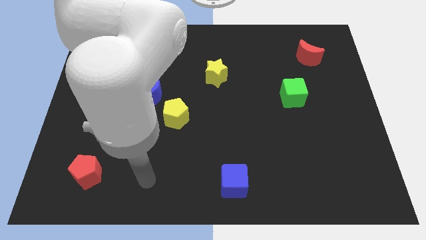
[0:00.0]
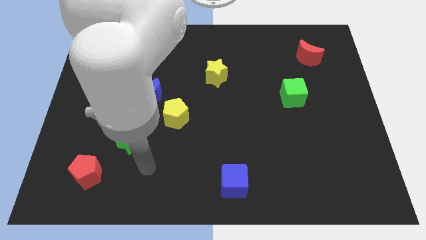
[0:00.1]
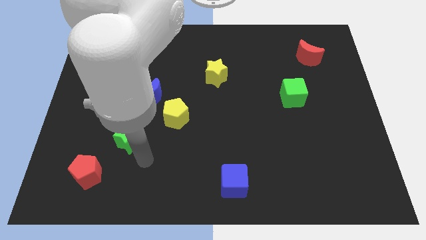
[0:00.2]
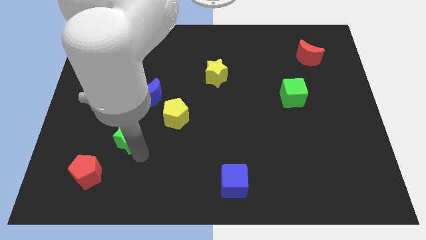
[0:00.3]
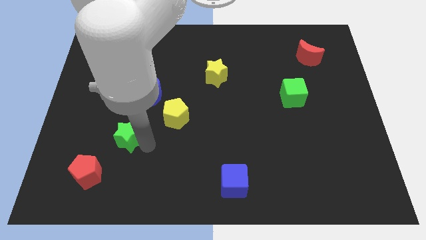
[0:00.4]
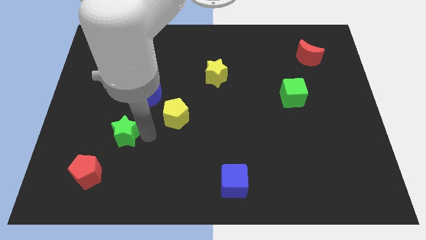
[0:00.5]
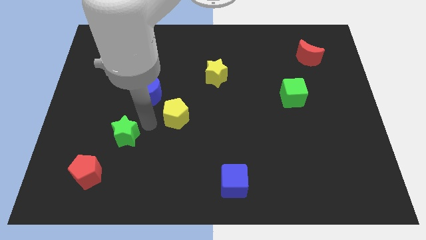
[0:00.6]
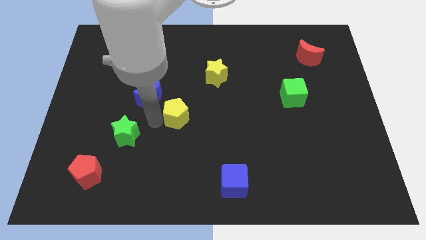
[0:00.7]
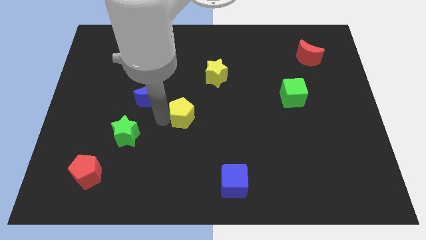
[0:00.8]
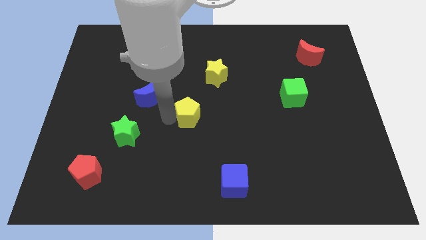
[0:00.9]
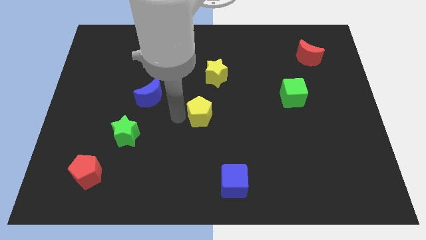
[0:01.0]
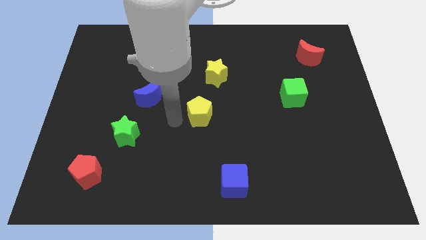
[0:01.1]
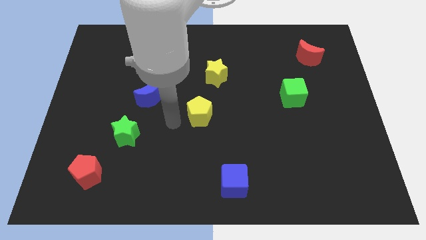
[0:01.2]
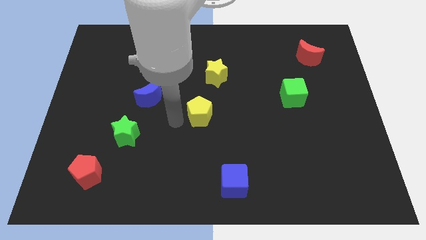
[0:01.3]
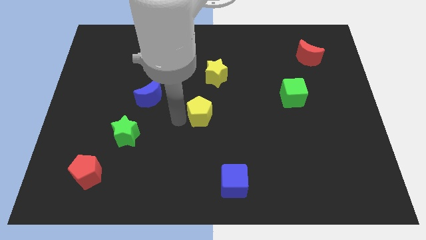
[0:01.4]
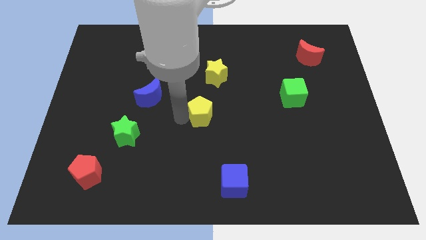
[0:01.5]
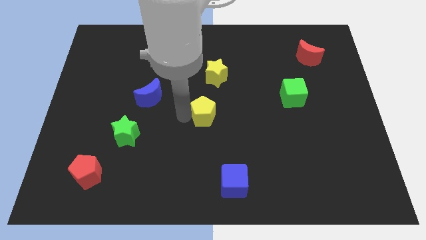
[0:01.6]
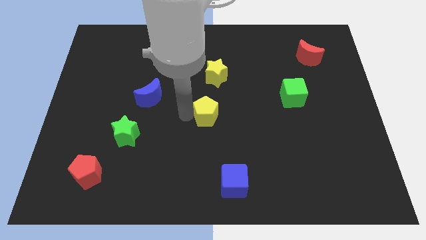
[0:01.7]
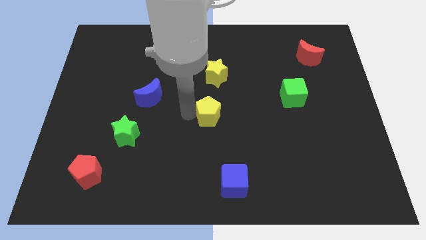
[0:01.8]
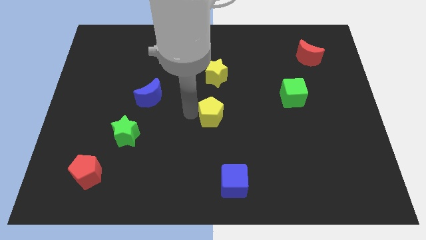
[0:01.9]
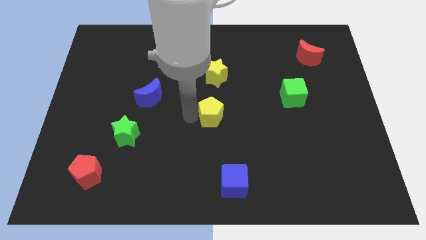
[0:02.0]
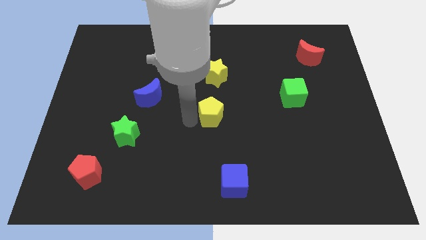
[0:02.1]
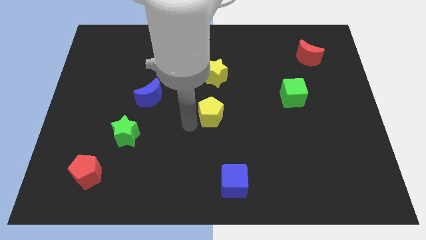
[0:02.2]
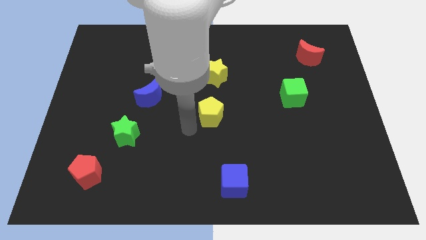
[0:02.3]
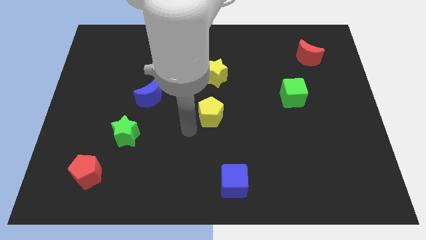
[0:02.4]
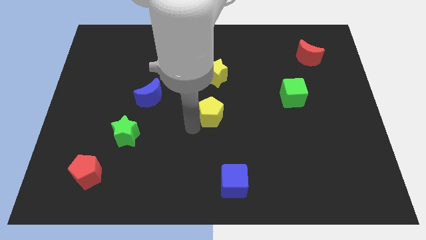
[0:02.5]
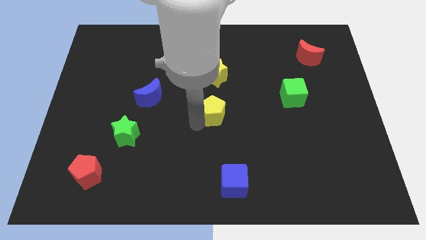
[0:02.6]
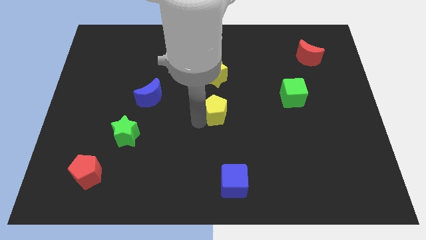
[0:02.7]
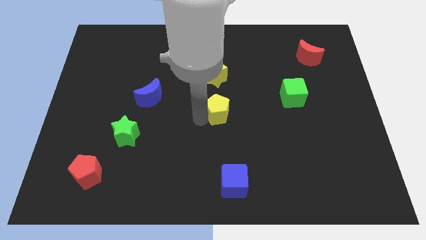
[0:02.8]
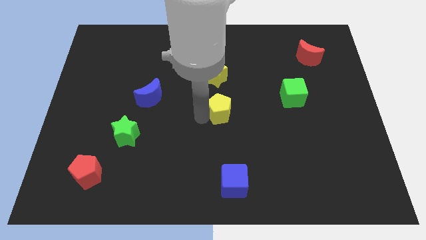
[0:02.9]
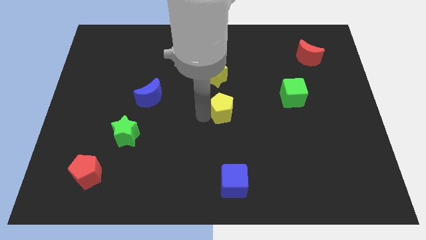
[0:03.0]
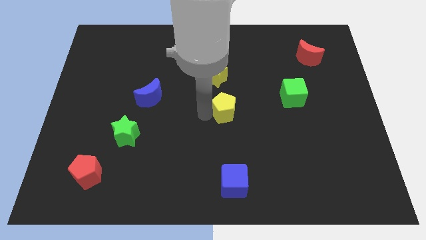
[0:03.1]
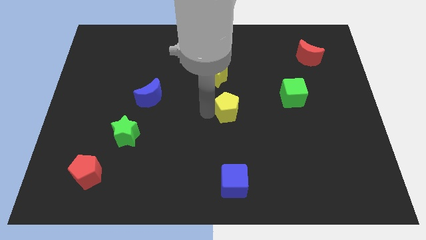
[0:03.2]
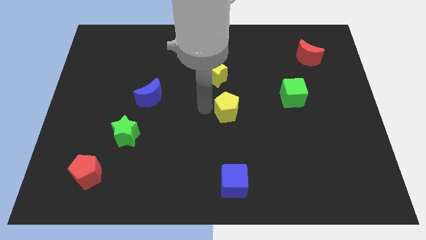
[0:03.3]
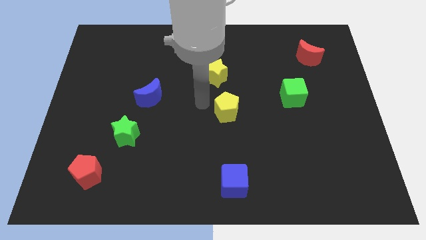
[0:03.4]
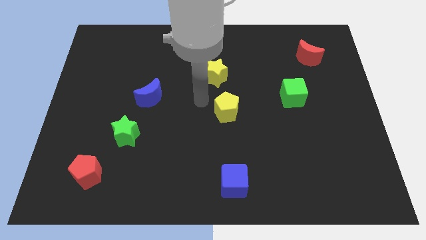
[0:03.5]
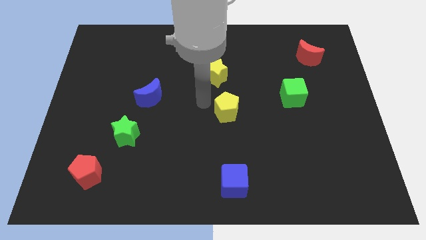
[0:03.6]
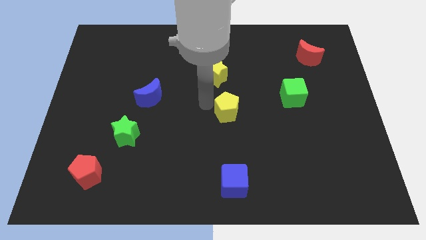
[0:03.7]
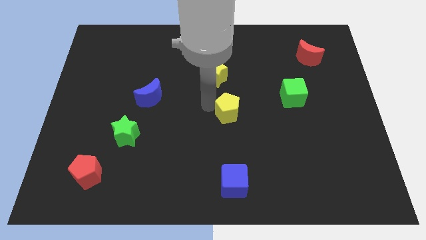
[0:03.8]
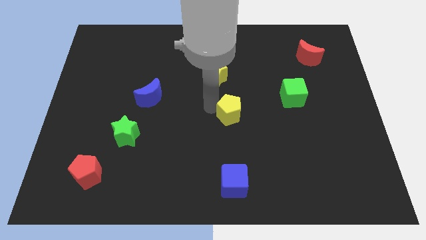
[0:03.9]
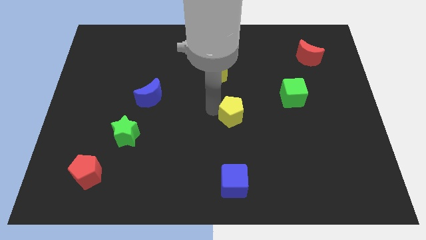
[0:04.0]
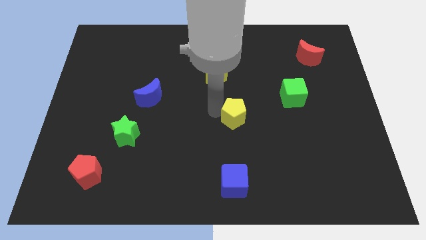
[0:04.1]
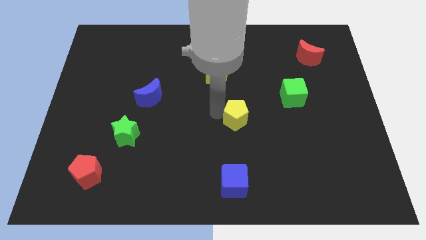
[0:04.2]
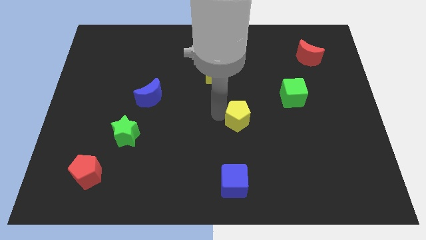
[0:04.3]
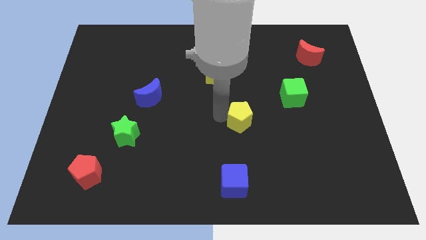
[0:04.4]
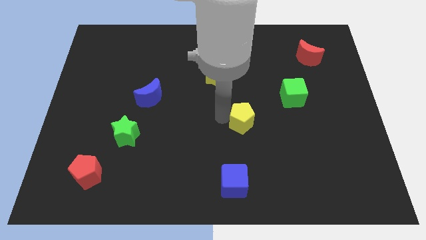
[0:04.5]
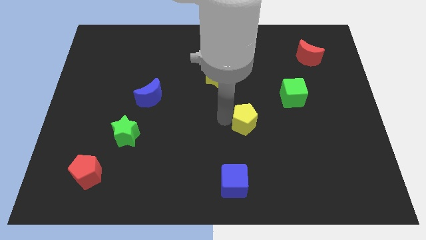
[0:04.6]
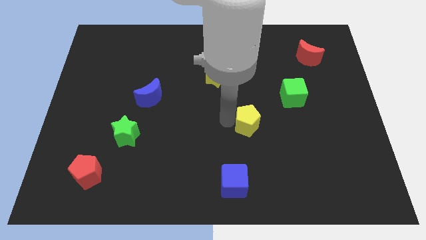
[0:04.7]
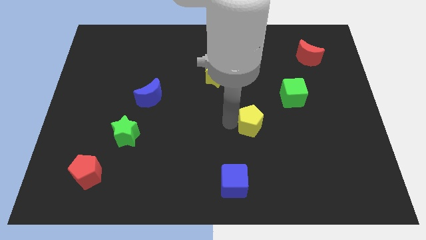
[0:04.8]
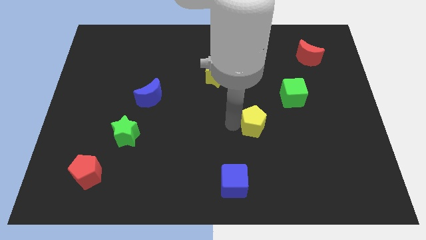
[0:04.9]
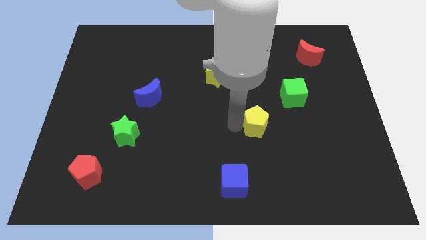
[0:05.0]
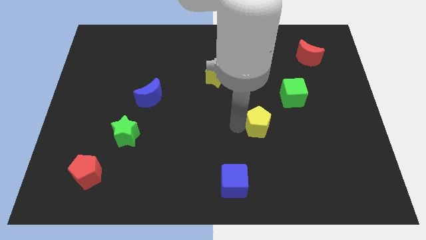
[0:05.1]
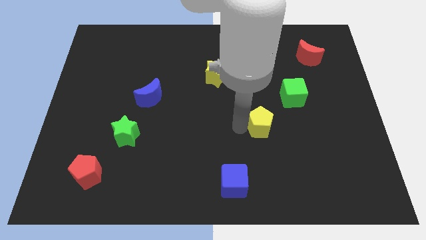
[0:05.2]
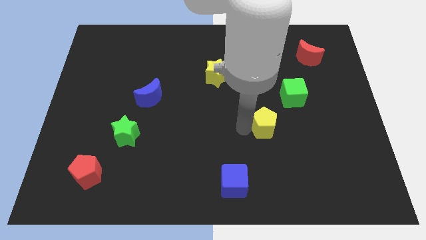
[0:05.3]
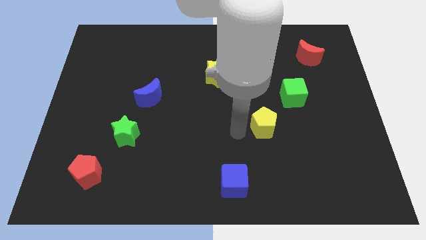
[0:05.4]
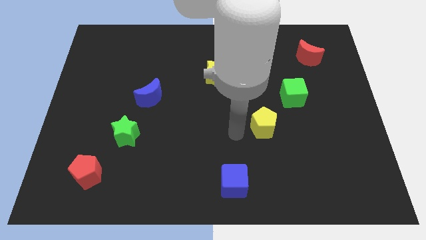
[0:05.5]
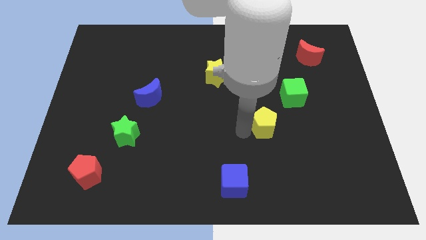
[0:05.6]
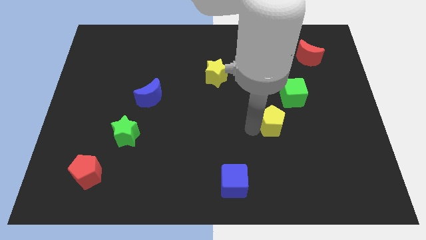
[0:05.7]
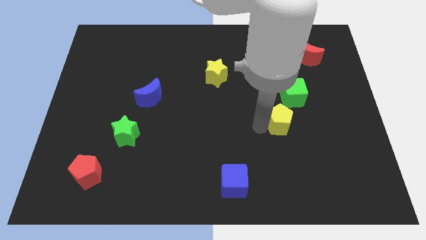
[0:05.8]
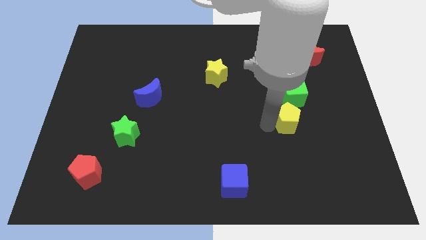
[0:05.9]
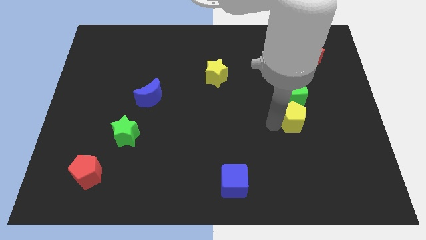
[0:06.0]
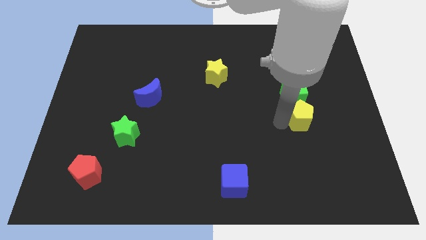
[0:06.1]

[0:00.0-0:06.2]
slide the yellow pentagon to the bottom right side of the green cube

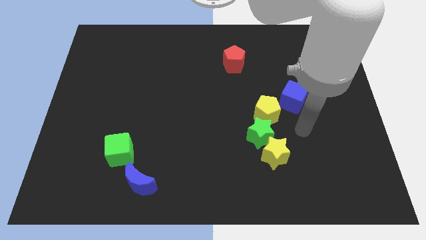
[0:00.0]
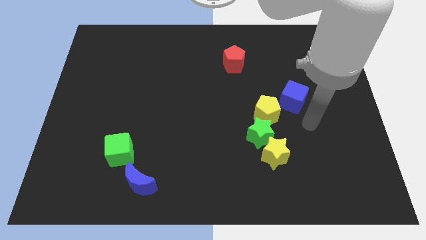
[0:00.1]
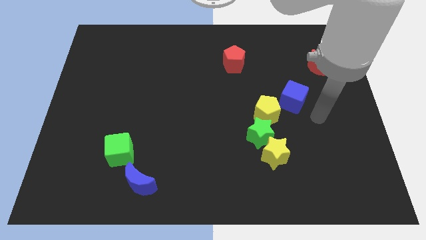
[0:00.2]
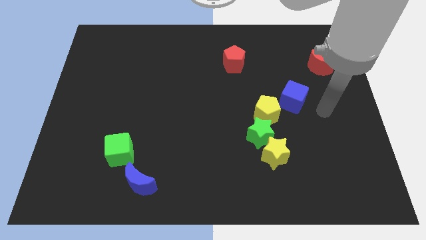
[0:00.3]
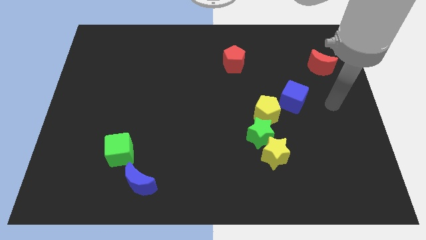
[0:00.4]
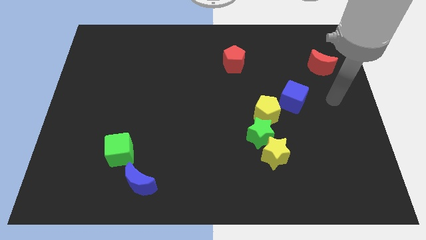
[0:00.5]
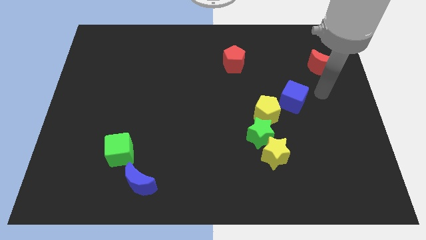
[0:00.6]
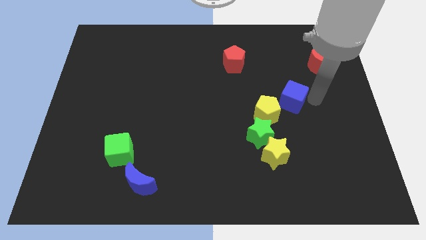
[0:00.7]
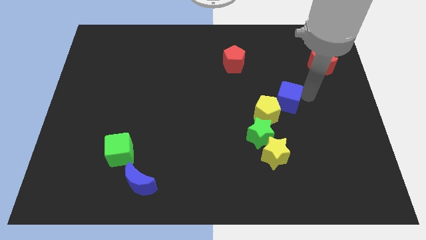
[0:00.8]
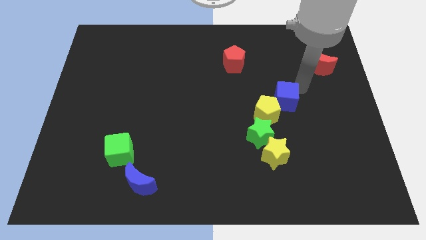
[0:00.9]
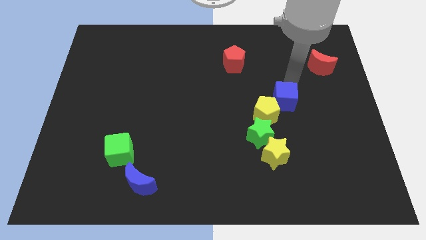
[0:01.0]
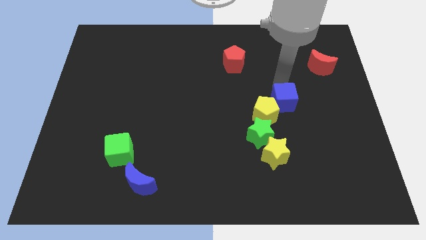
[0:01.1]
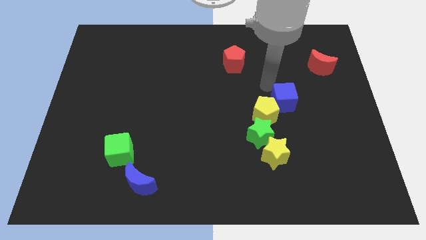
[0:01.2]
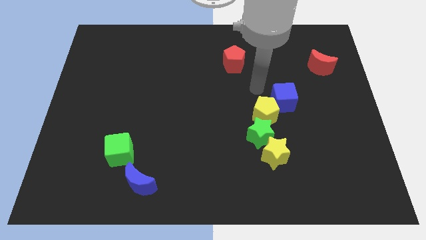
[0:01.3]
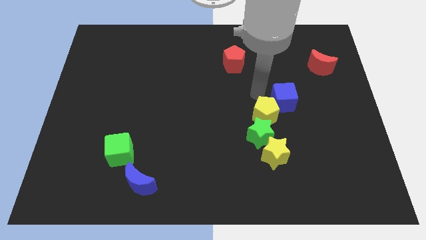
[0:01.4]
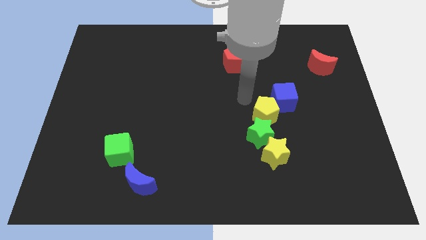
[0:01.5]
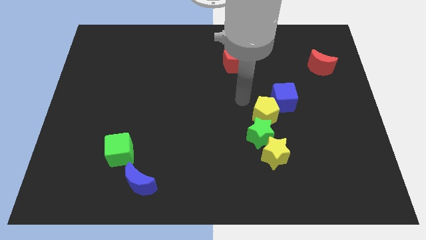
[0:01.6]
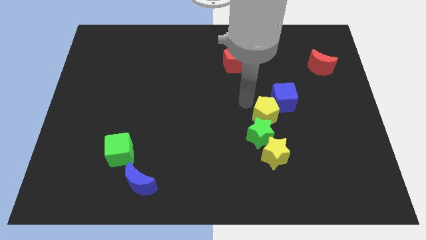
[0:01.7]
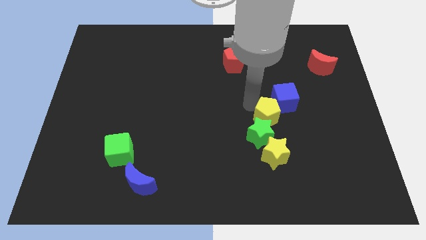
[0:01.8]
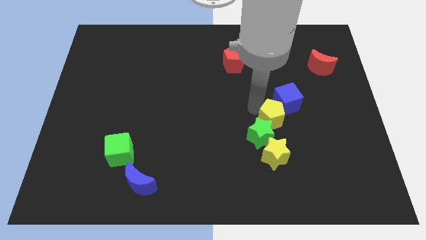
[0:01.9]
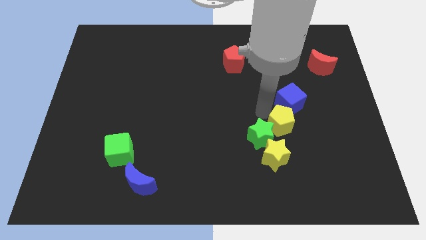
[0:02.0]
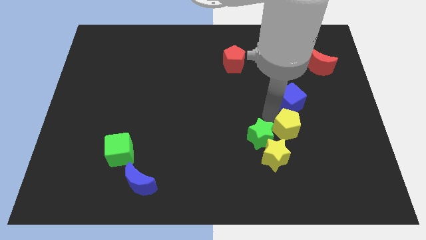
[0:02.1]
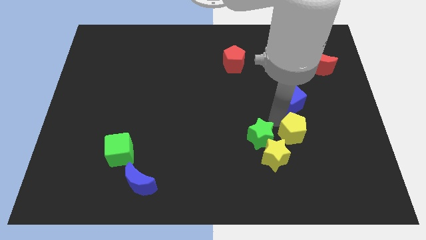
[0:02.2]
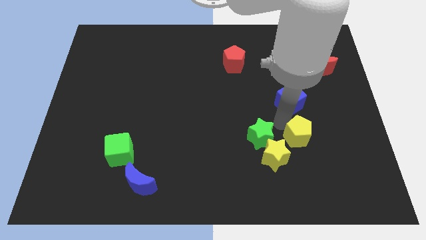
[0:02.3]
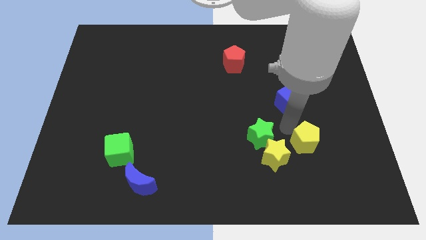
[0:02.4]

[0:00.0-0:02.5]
put the yellow pentagon just right of the yellow star
